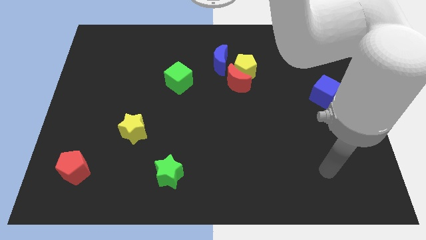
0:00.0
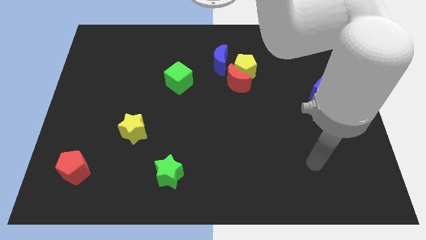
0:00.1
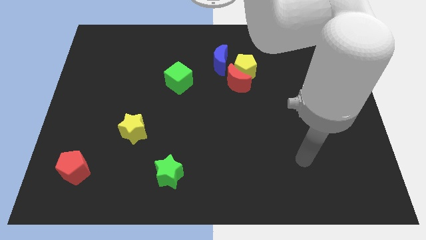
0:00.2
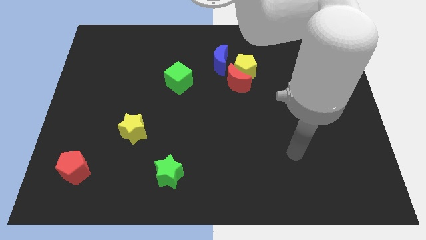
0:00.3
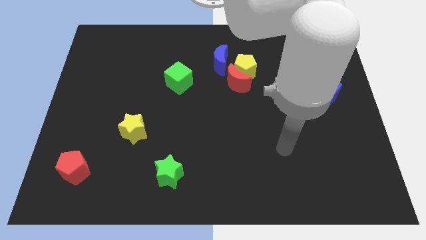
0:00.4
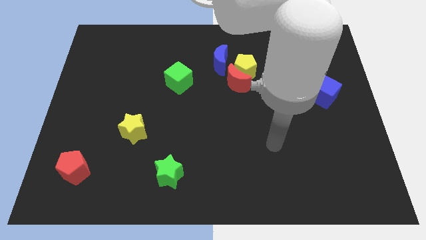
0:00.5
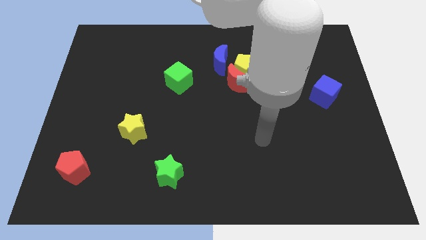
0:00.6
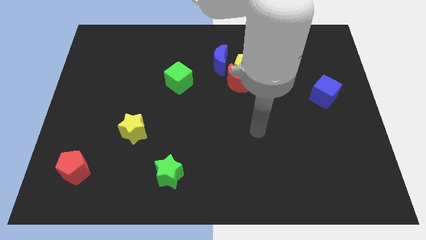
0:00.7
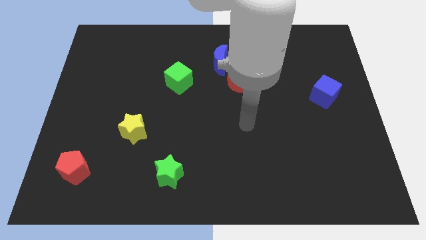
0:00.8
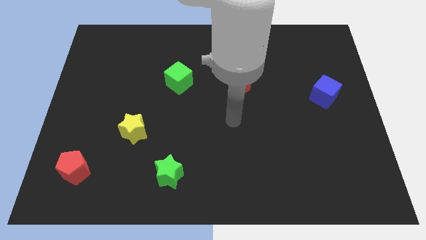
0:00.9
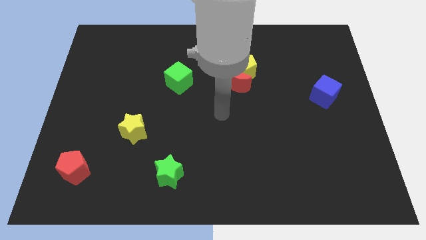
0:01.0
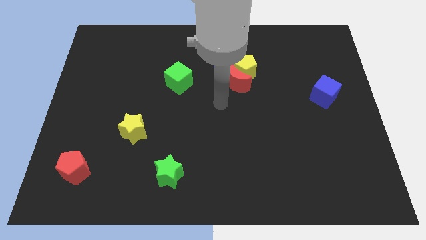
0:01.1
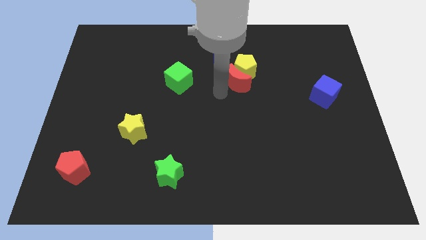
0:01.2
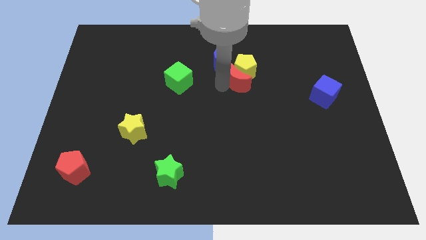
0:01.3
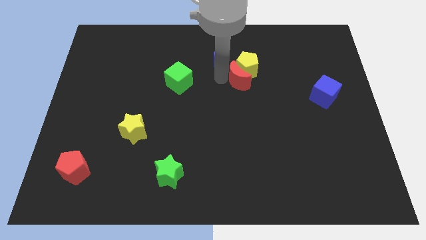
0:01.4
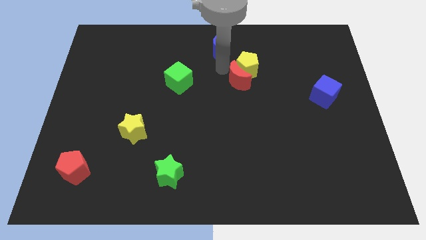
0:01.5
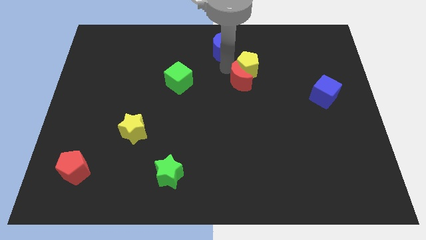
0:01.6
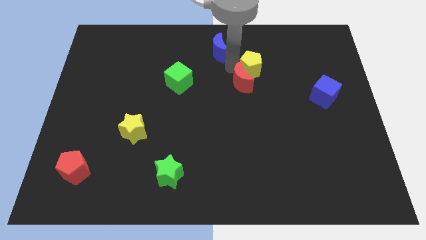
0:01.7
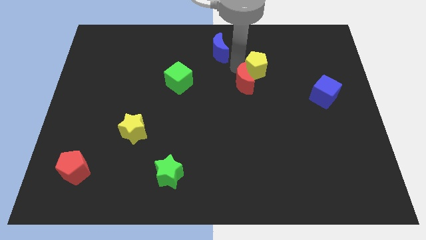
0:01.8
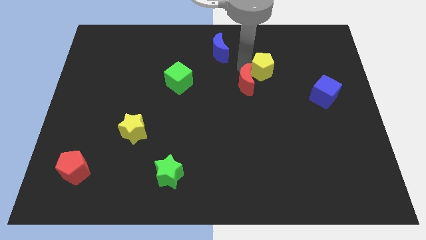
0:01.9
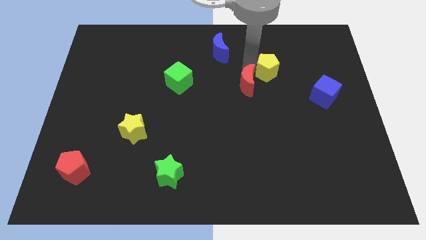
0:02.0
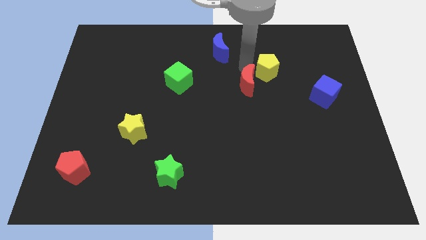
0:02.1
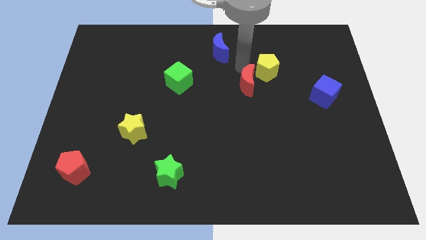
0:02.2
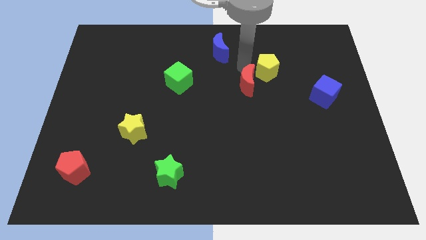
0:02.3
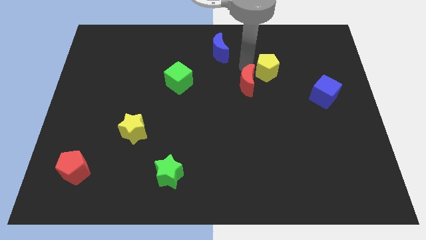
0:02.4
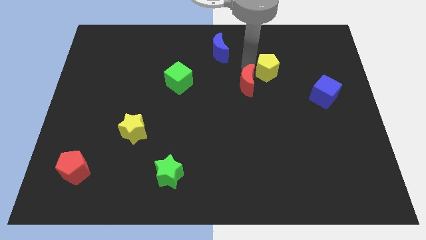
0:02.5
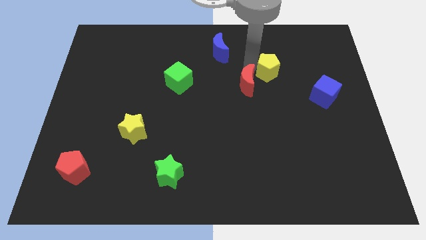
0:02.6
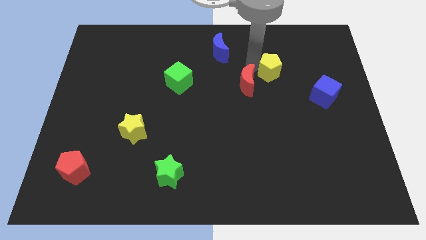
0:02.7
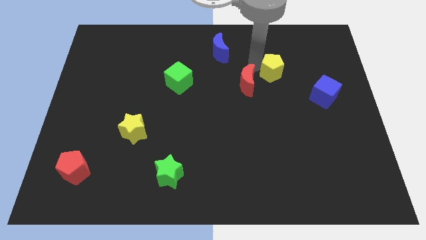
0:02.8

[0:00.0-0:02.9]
pull the yellow pentagon apart from the red moon and blue moon

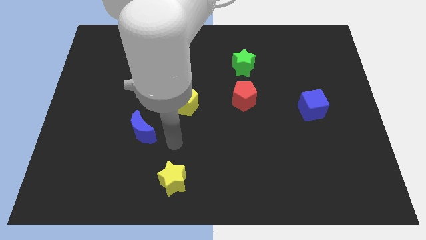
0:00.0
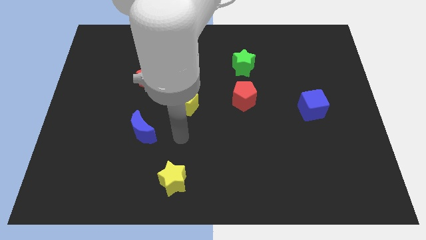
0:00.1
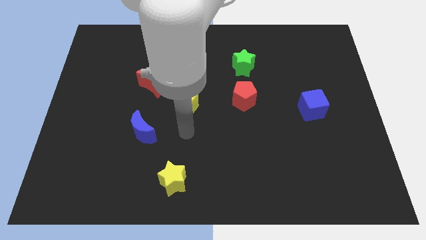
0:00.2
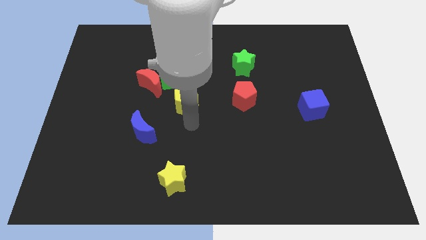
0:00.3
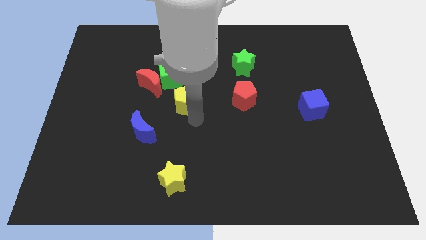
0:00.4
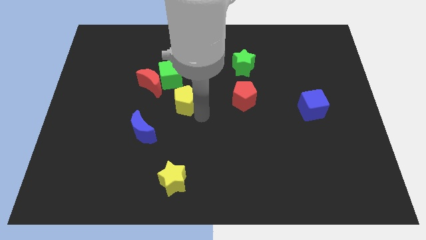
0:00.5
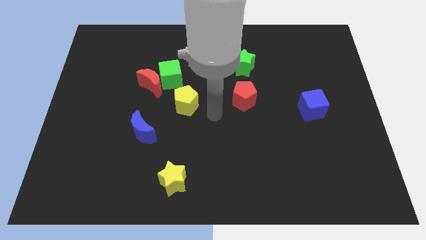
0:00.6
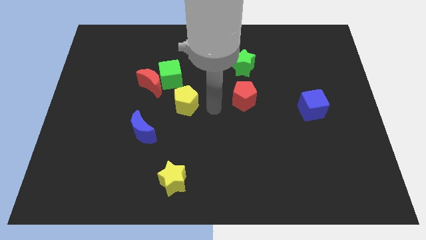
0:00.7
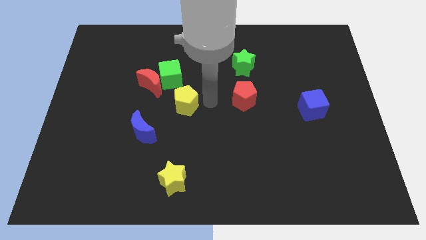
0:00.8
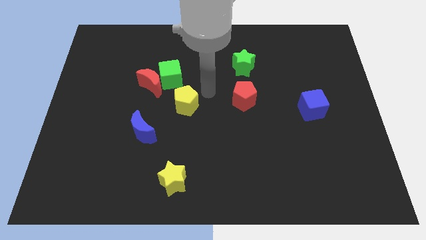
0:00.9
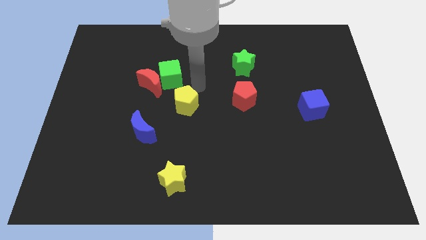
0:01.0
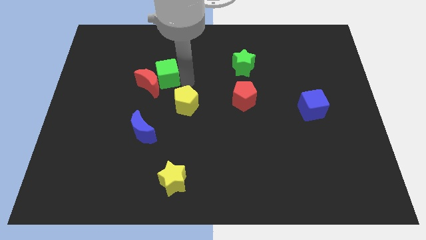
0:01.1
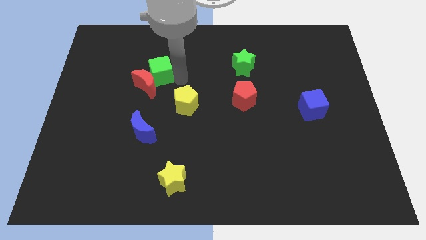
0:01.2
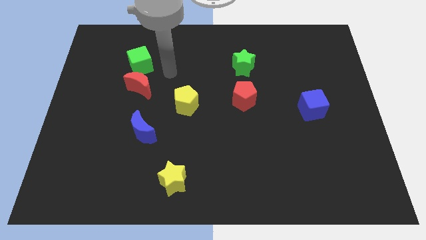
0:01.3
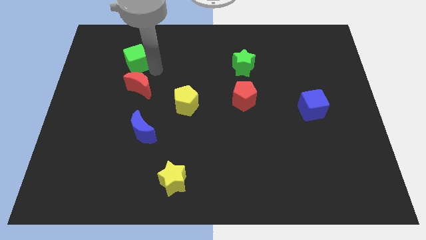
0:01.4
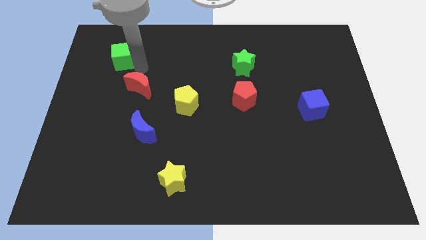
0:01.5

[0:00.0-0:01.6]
pull the red moon apart from the green cube

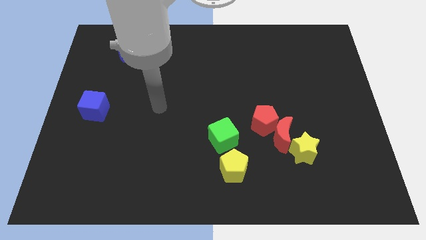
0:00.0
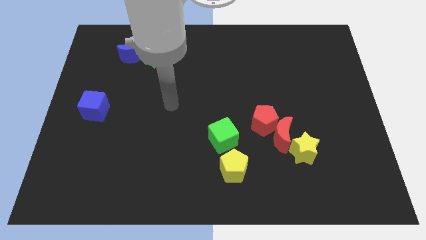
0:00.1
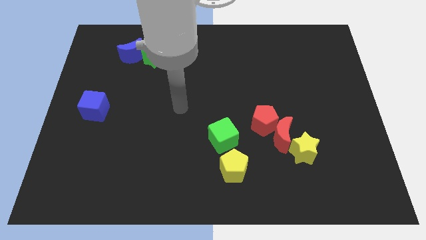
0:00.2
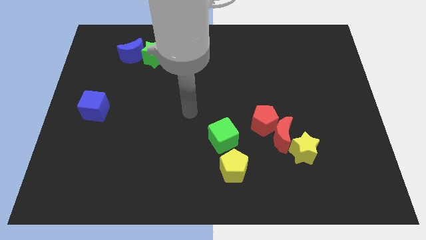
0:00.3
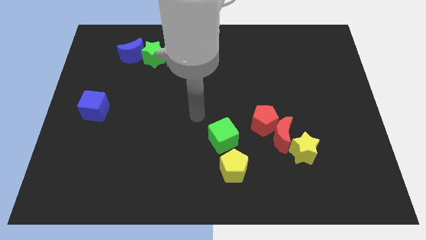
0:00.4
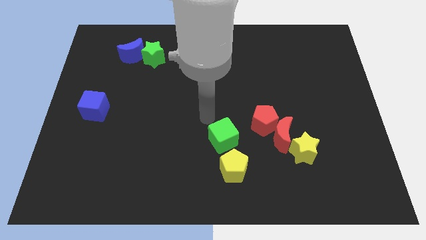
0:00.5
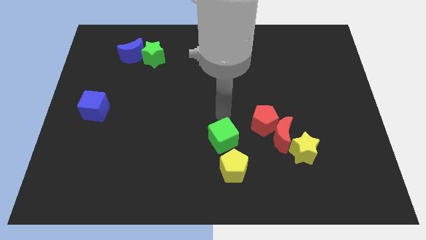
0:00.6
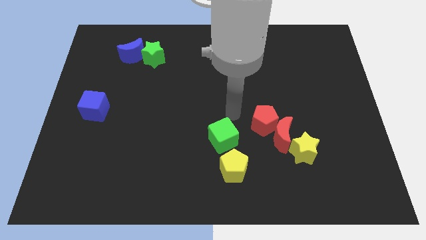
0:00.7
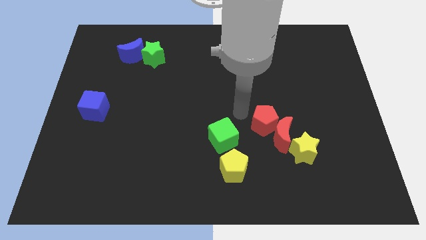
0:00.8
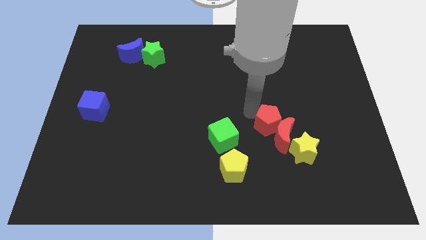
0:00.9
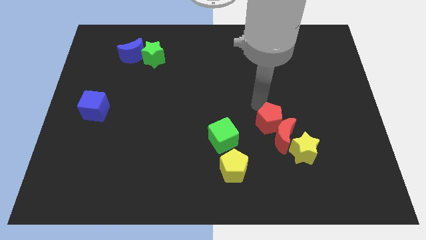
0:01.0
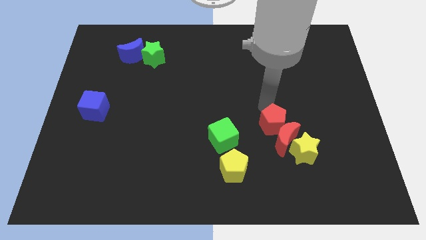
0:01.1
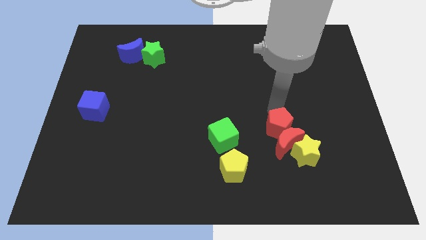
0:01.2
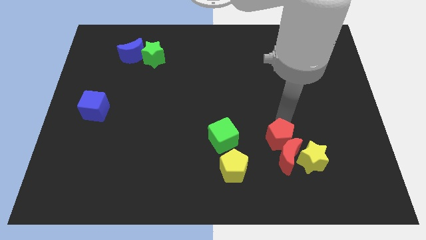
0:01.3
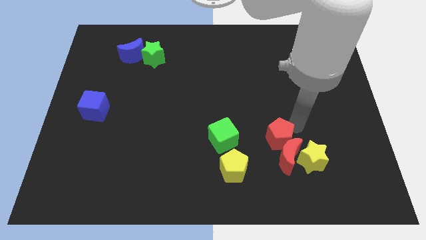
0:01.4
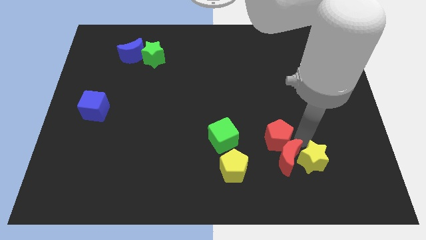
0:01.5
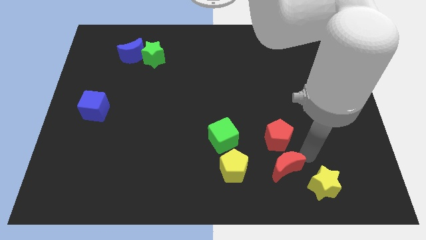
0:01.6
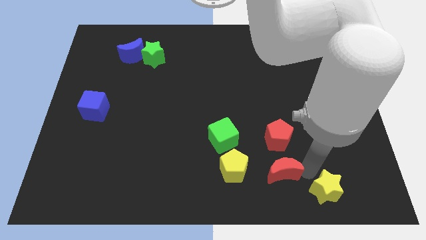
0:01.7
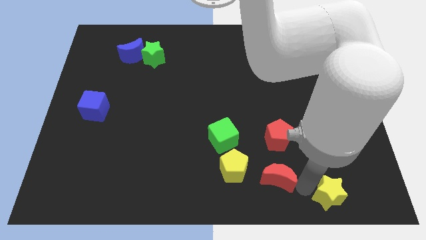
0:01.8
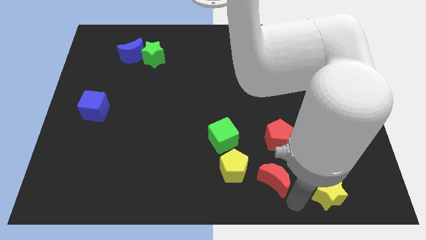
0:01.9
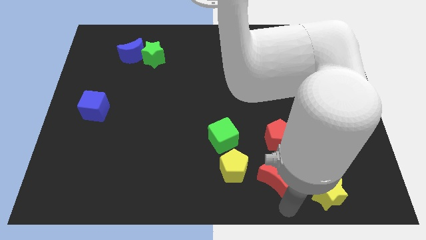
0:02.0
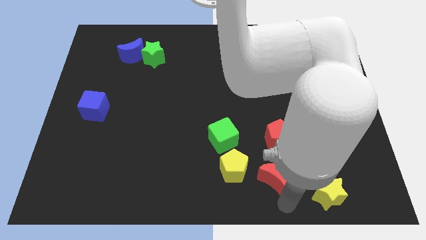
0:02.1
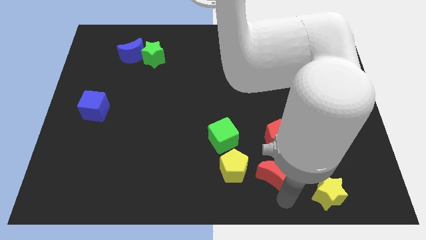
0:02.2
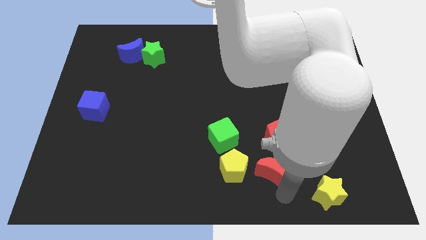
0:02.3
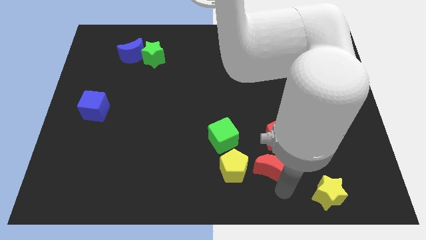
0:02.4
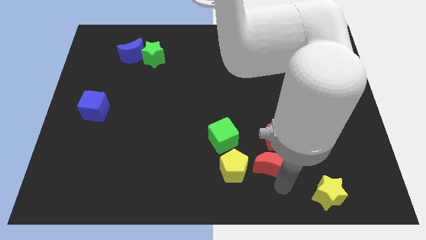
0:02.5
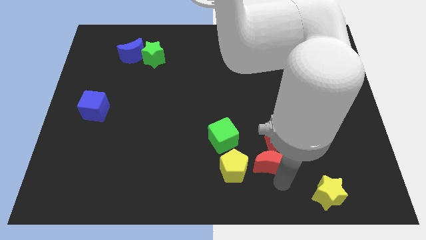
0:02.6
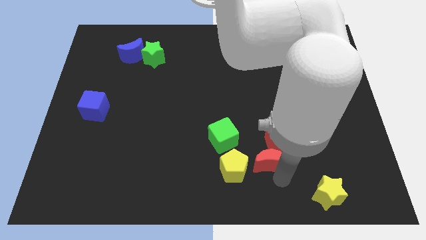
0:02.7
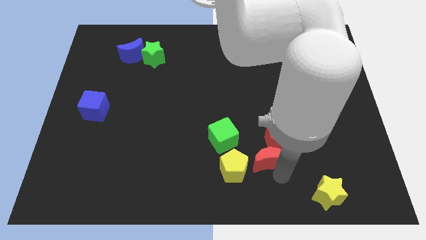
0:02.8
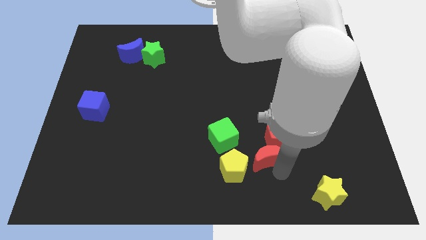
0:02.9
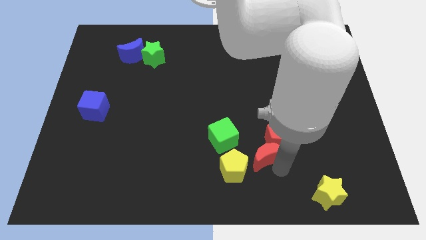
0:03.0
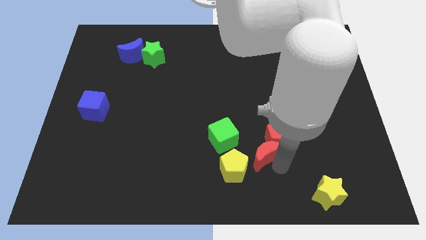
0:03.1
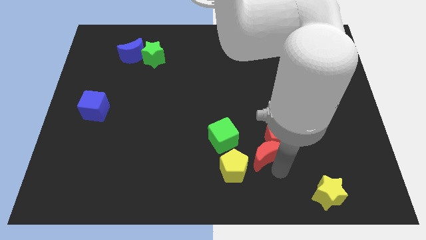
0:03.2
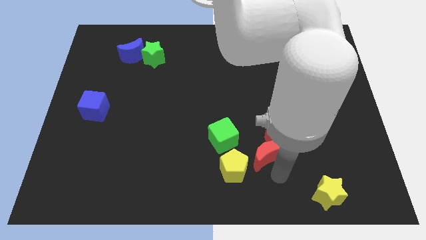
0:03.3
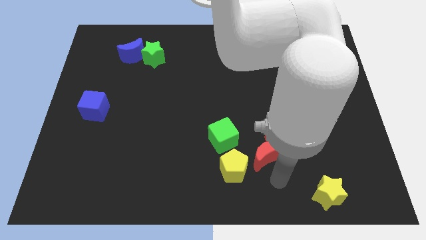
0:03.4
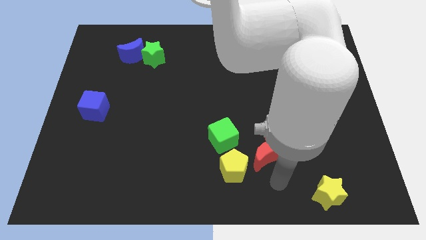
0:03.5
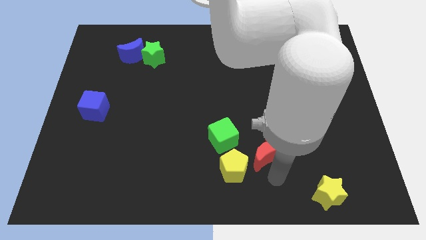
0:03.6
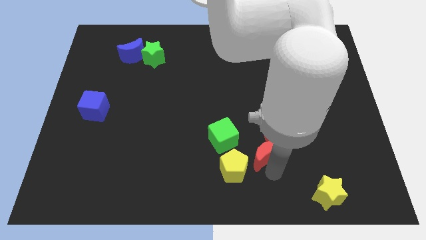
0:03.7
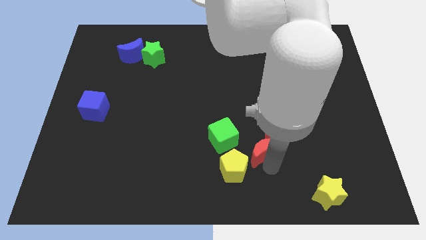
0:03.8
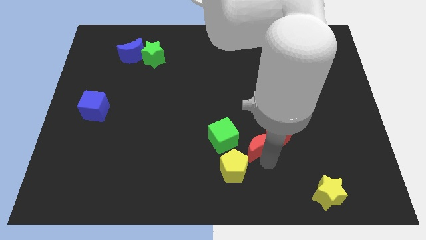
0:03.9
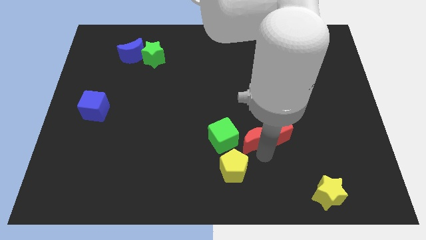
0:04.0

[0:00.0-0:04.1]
pull the red moon apart from the red pentagon and yellow star

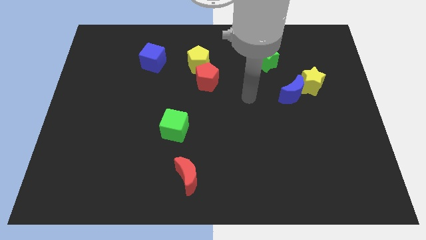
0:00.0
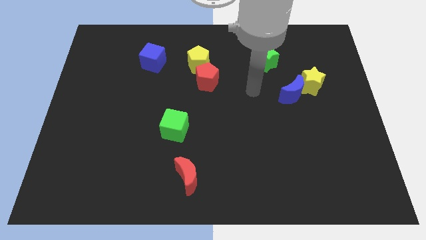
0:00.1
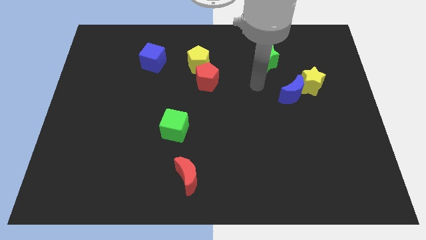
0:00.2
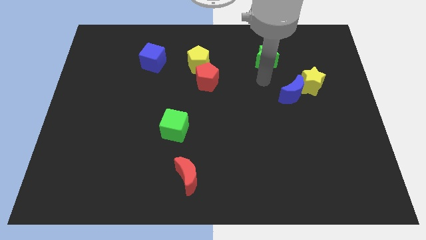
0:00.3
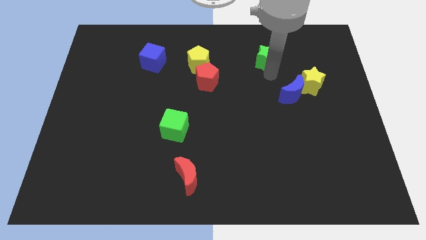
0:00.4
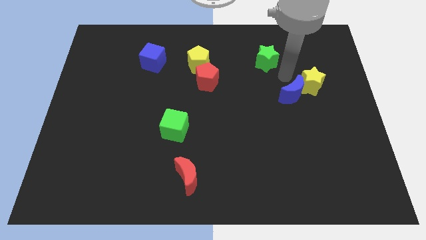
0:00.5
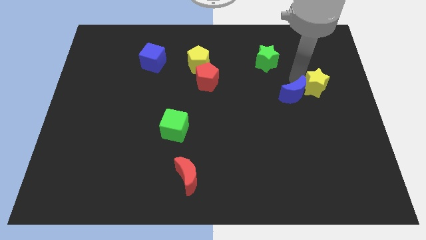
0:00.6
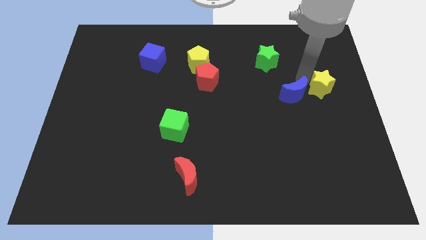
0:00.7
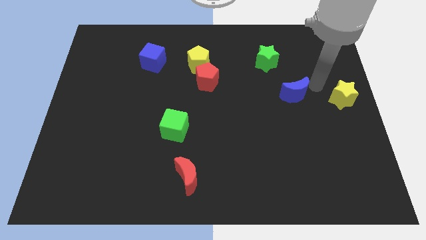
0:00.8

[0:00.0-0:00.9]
separate the blue moon from the yellow star
